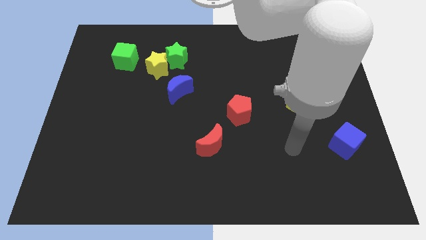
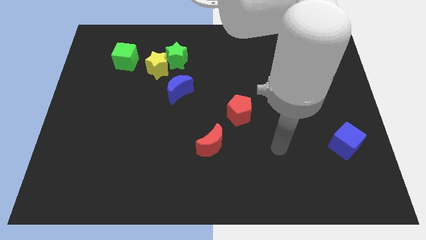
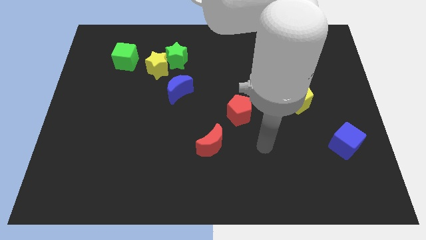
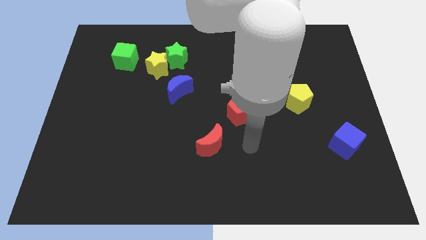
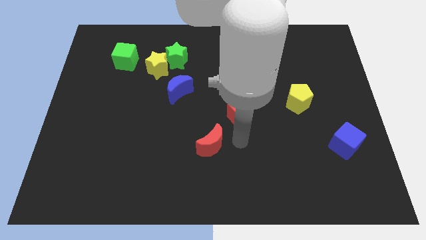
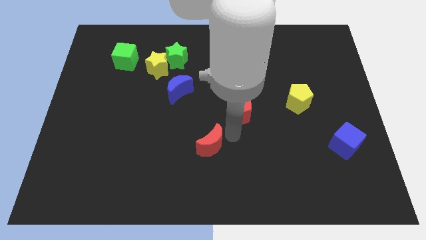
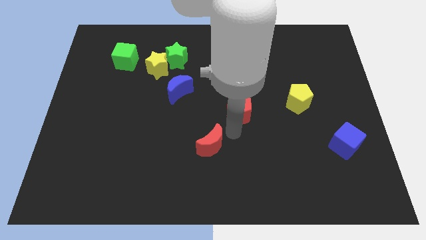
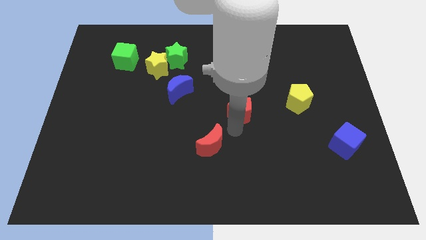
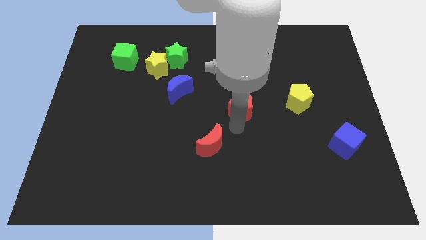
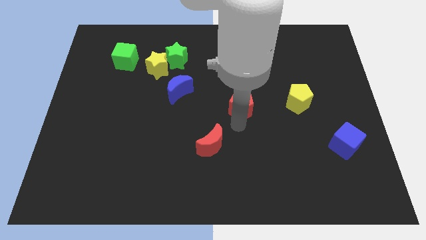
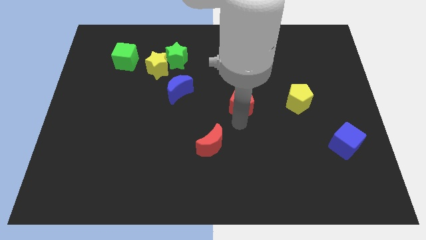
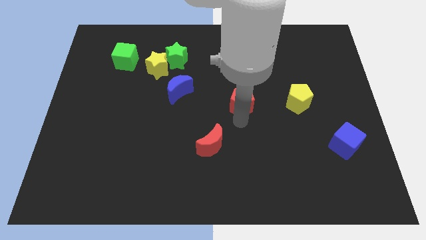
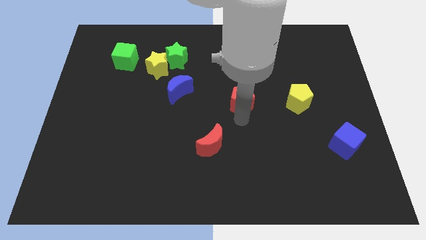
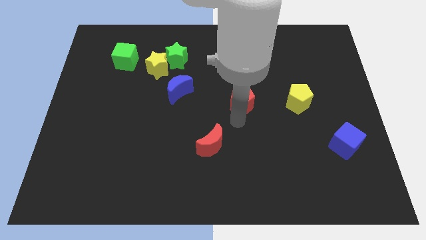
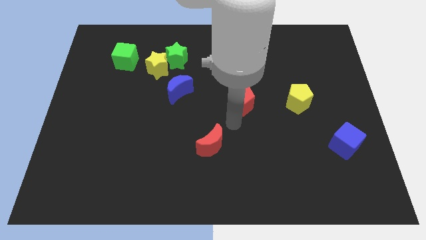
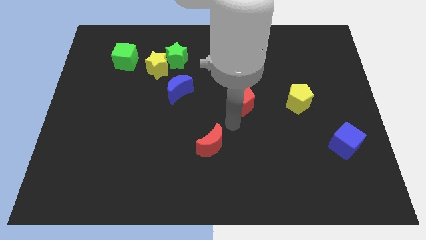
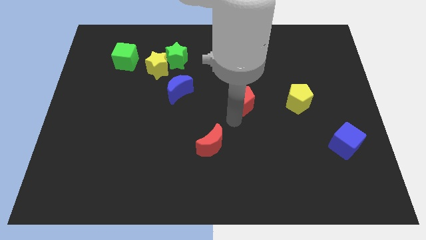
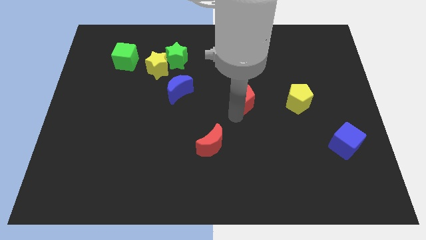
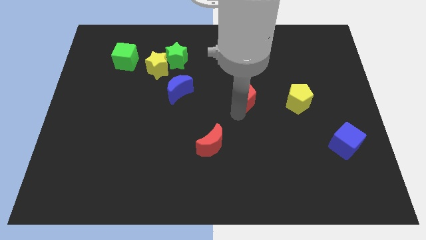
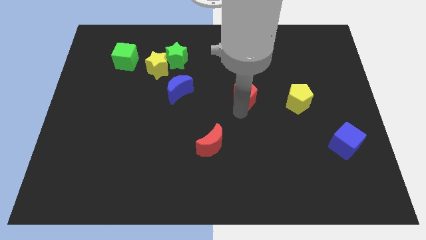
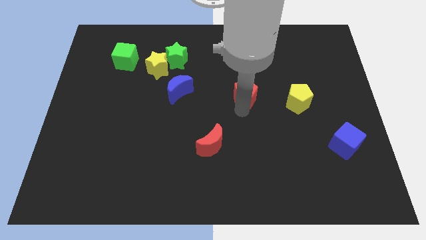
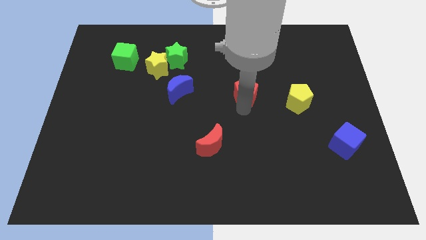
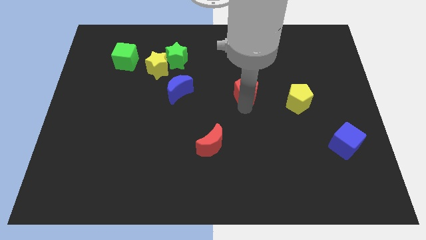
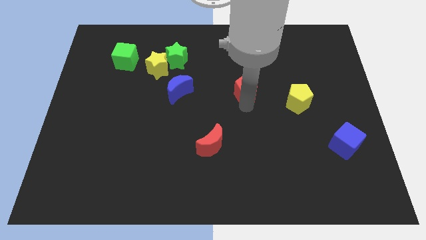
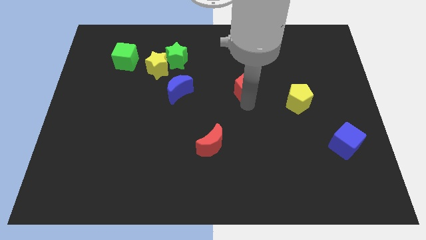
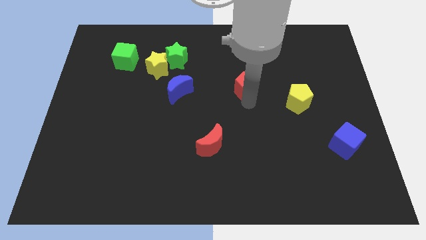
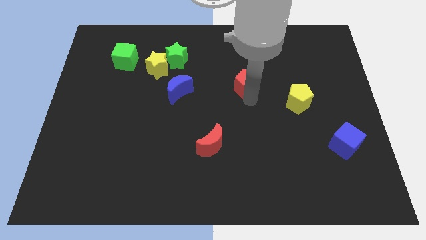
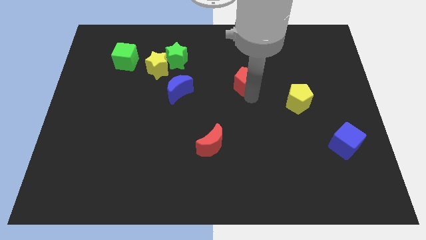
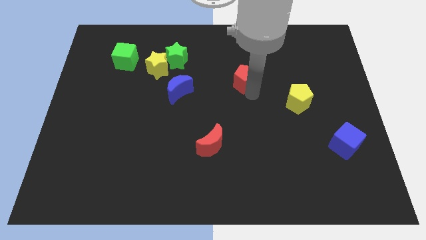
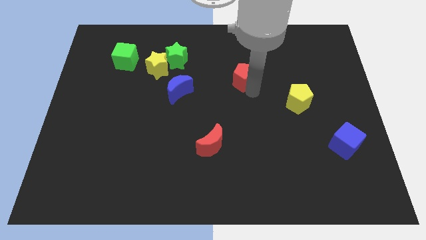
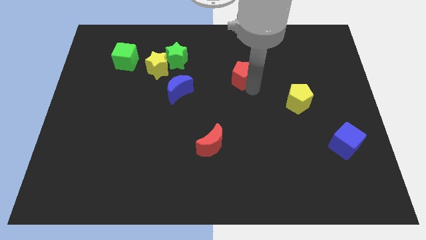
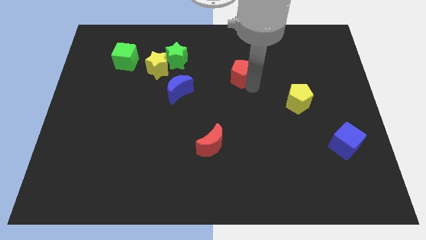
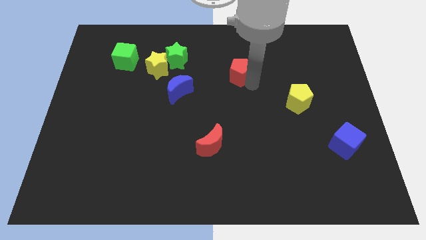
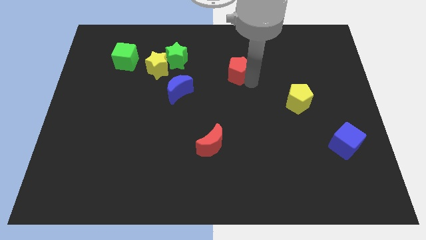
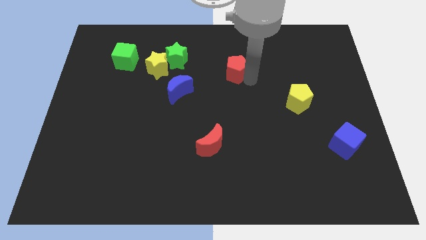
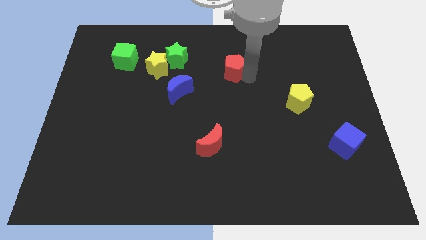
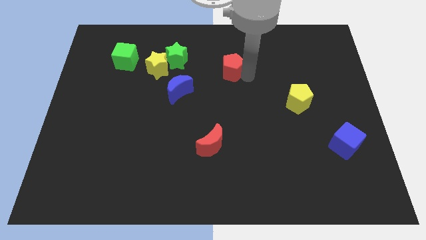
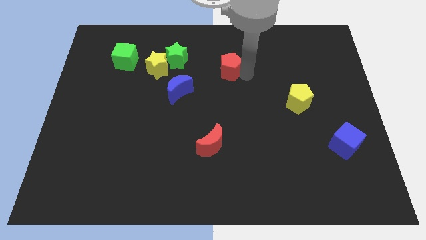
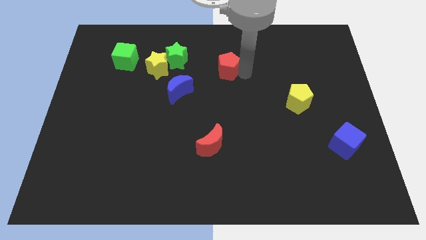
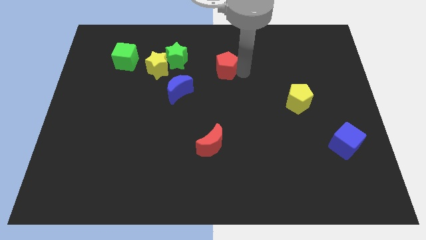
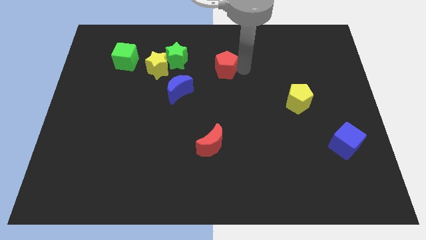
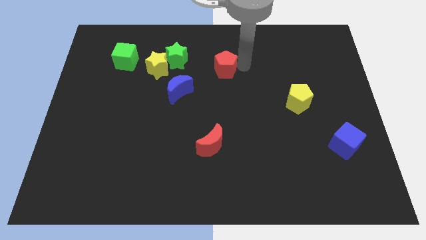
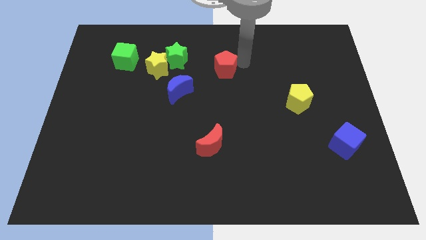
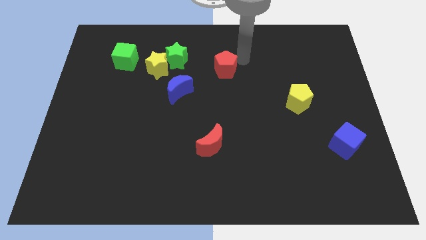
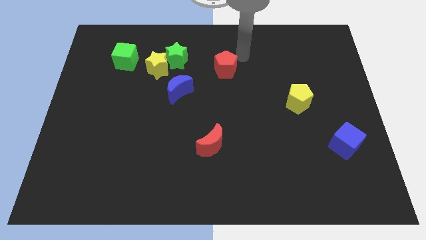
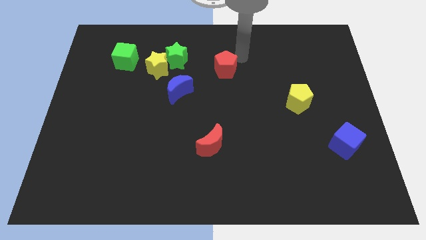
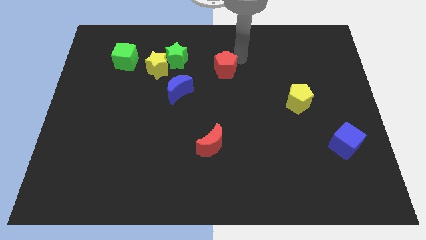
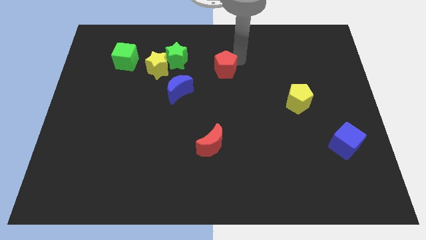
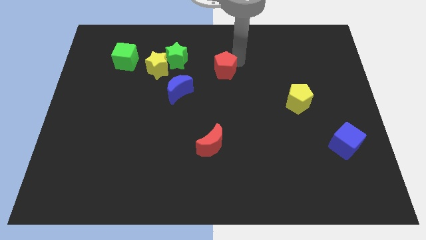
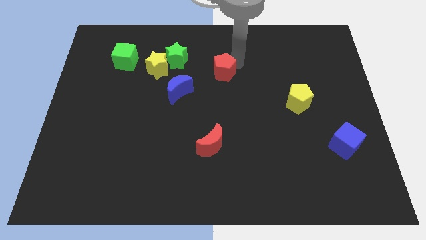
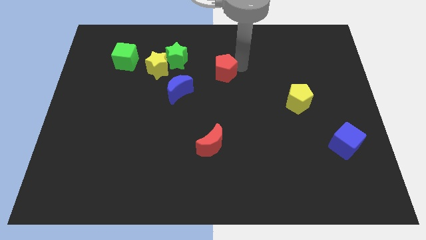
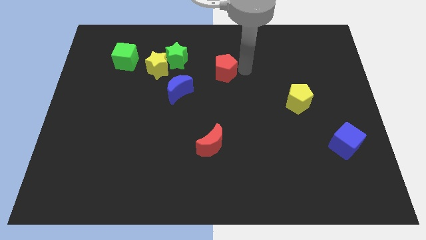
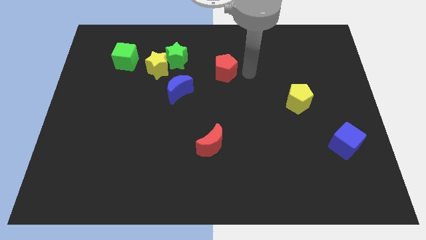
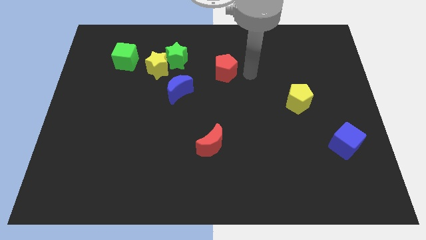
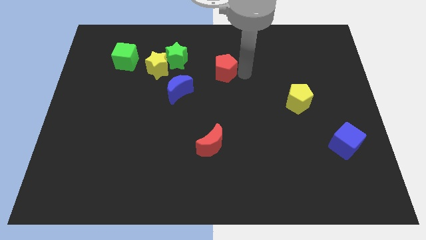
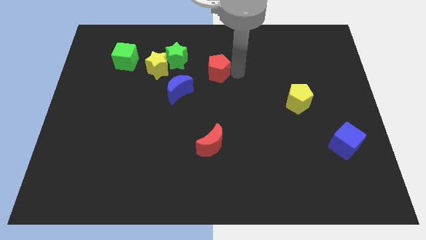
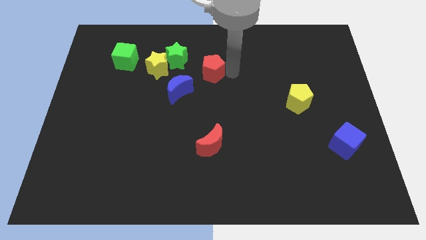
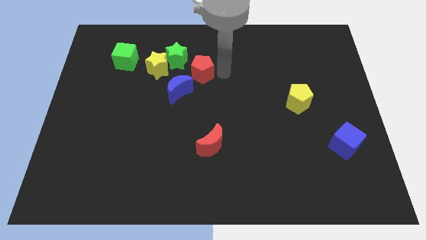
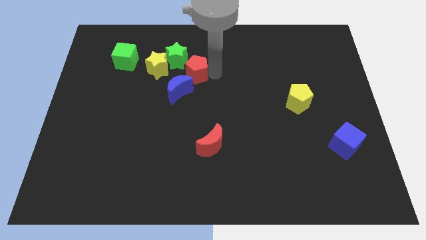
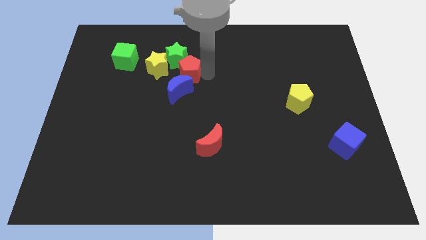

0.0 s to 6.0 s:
move the red pentagon close to the green star
